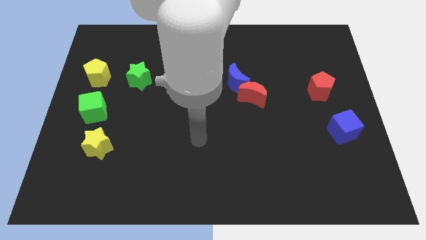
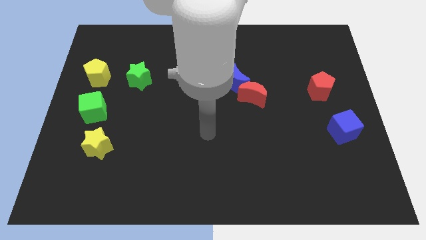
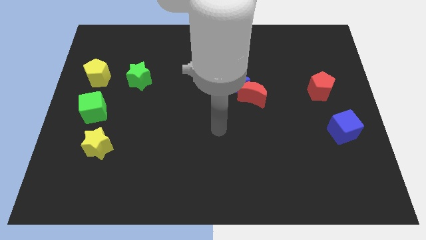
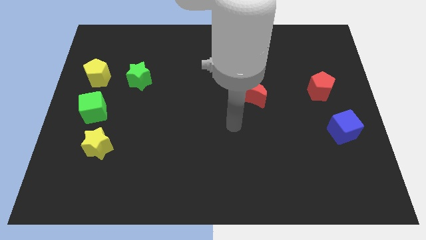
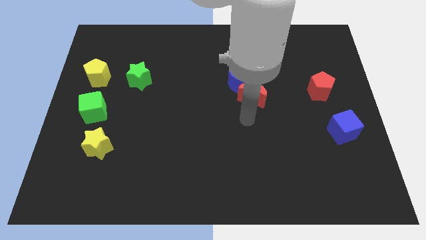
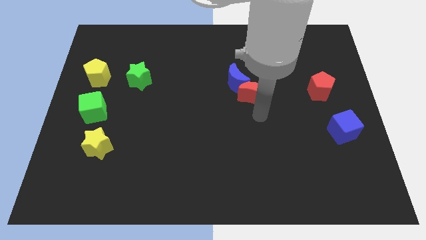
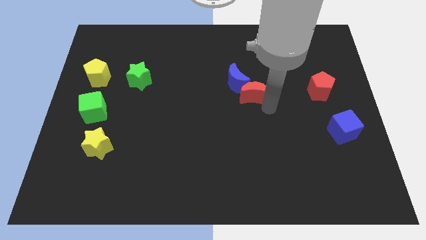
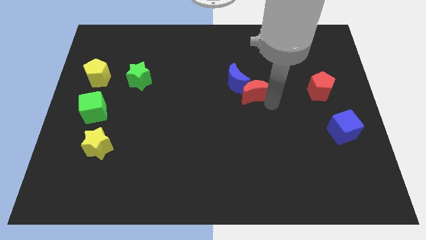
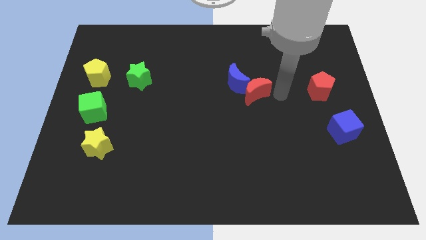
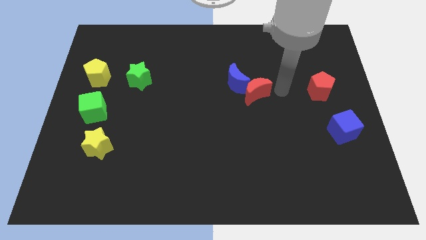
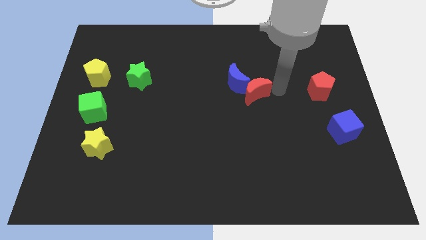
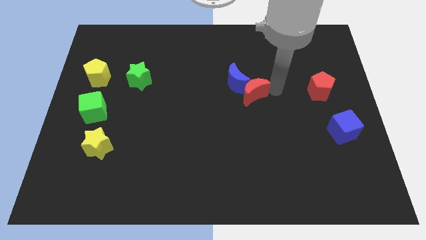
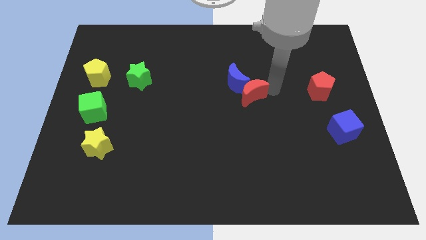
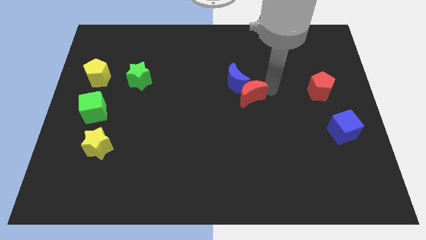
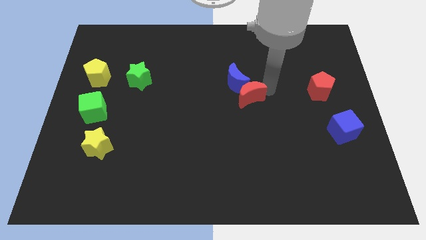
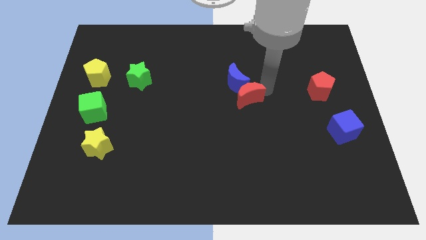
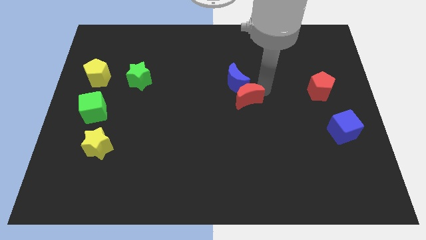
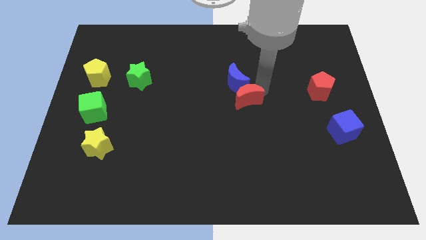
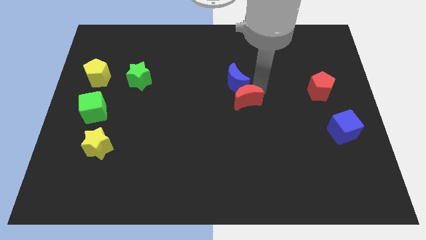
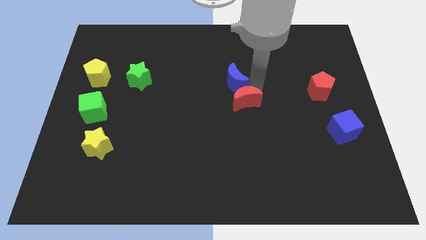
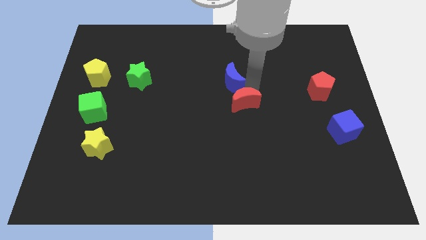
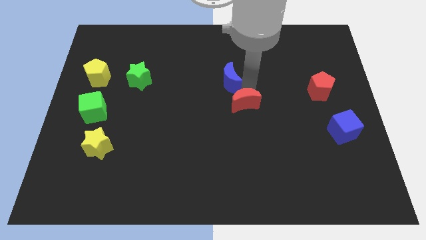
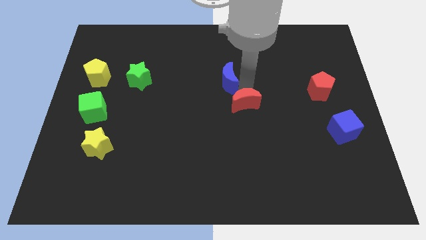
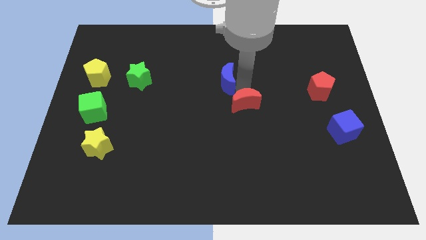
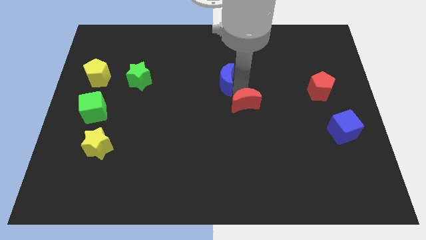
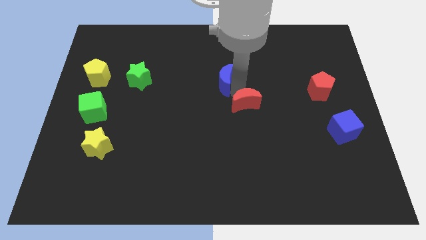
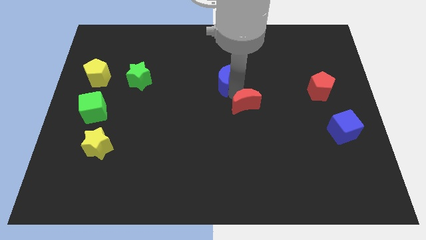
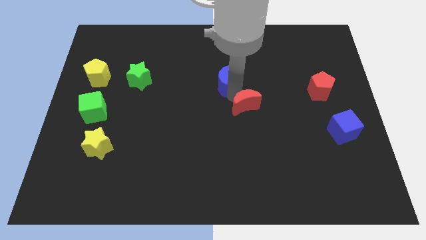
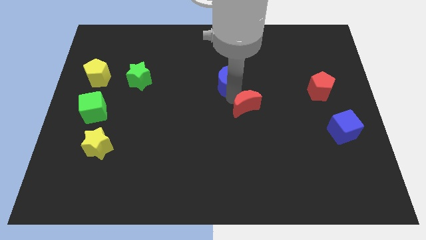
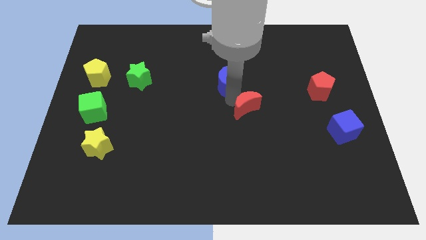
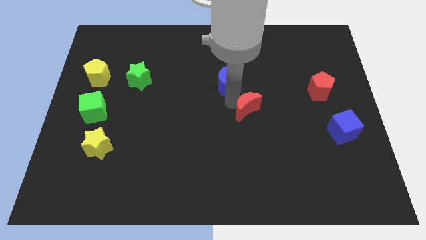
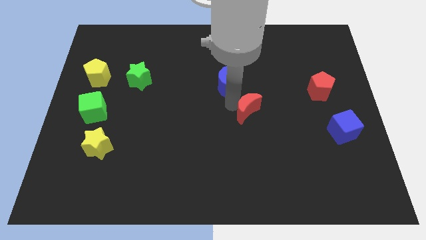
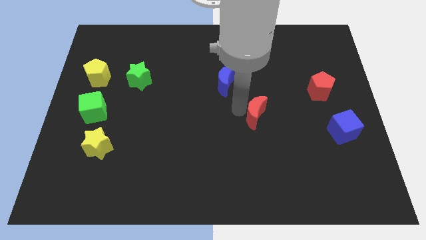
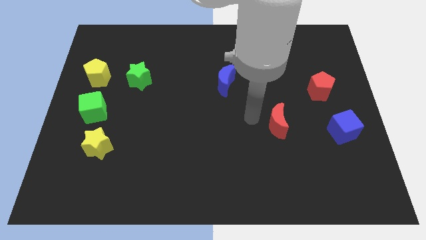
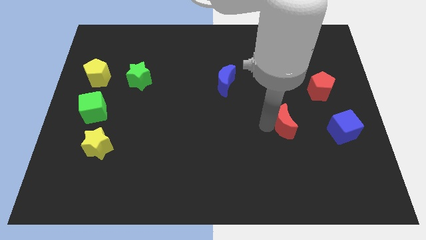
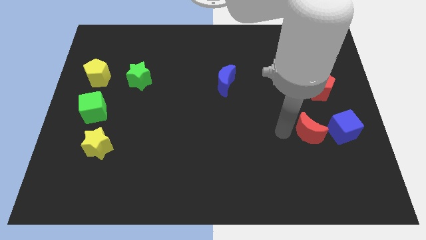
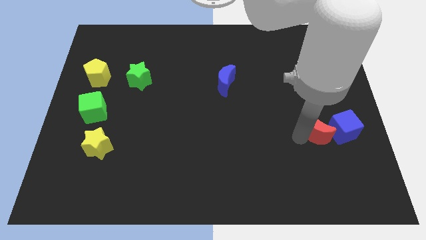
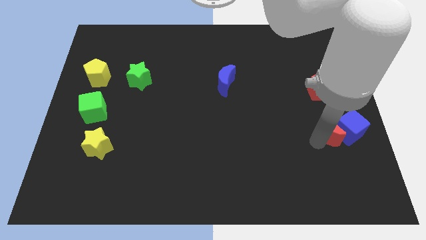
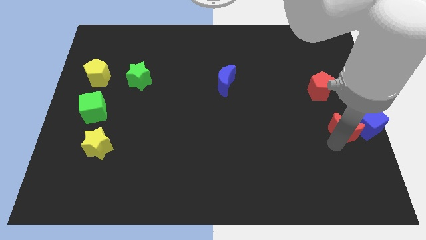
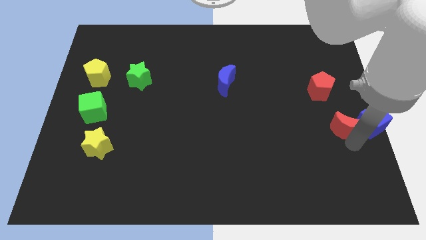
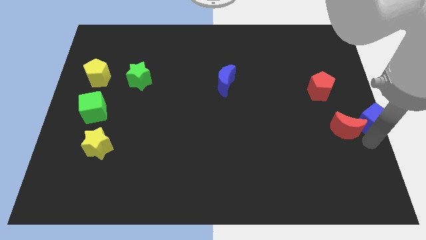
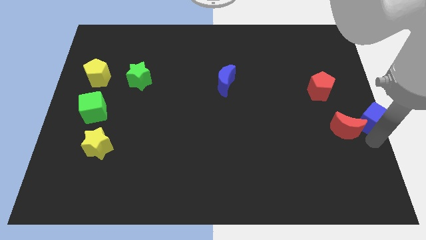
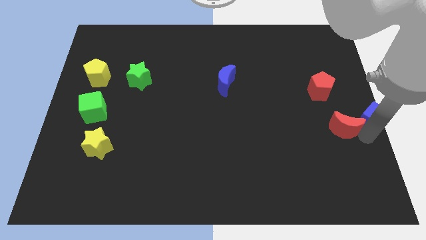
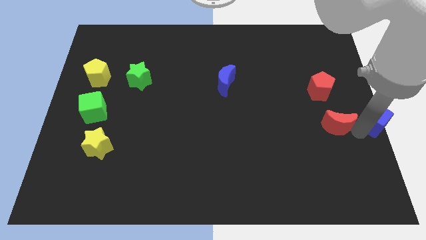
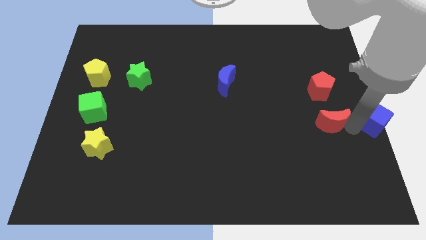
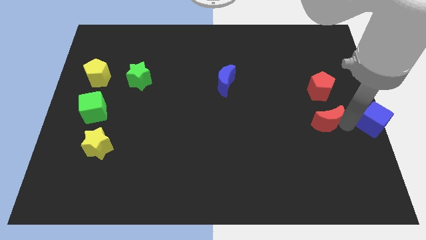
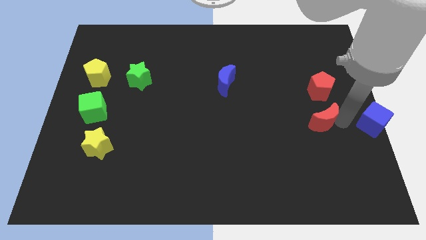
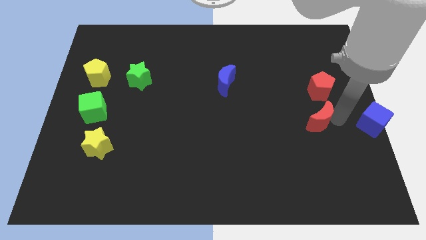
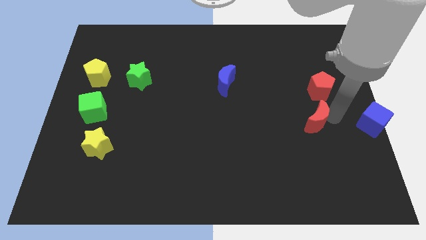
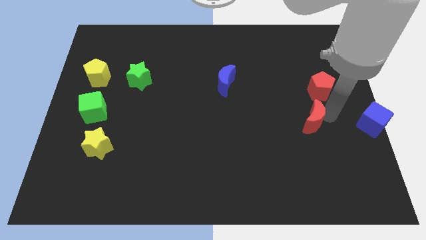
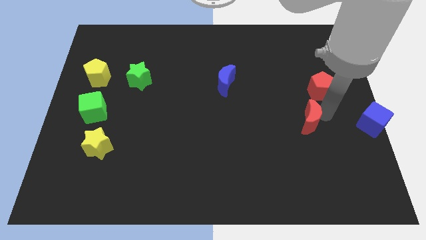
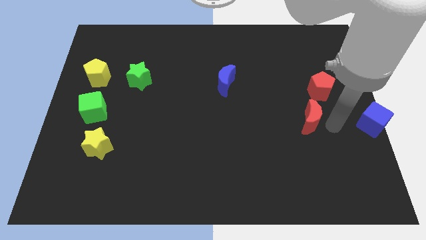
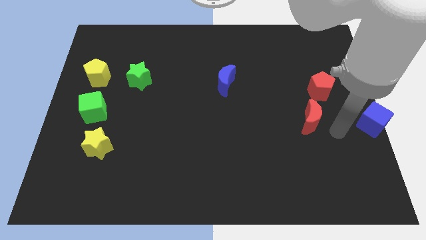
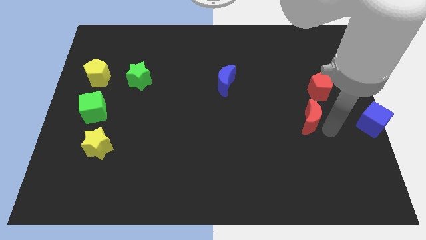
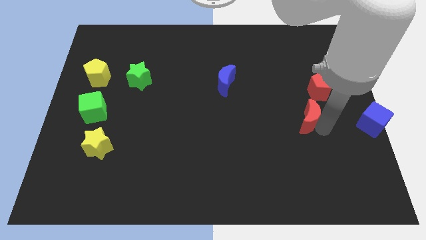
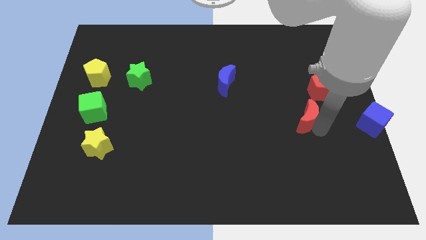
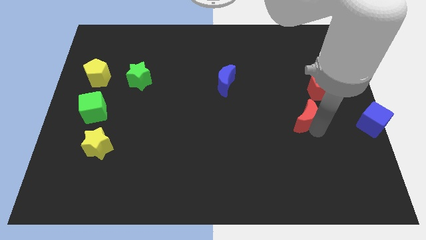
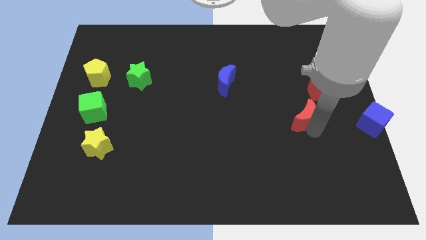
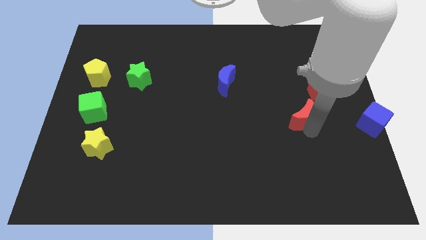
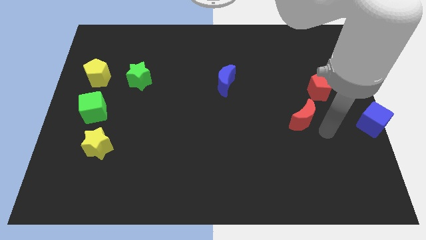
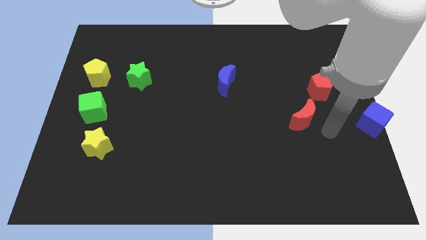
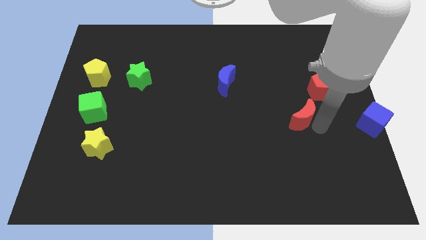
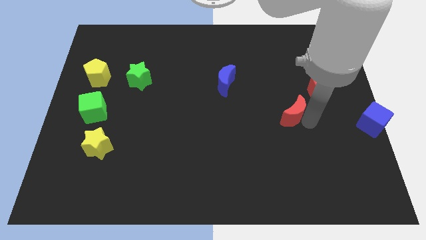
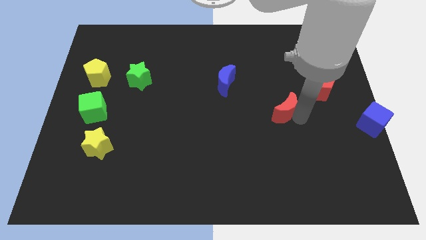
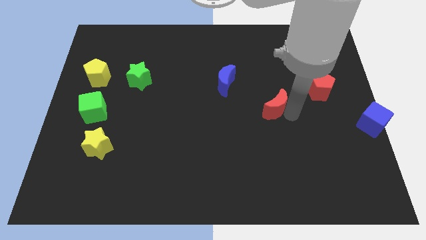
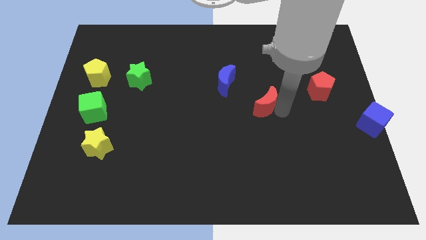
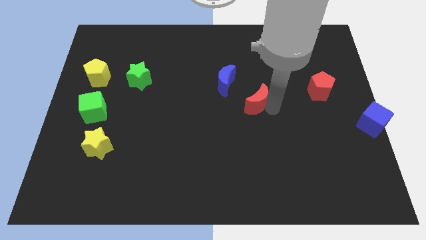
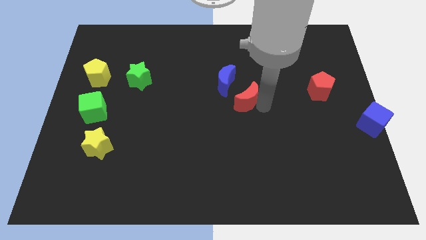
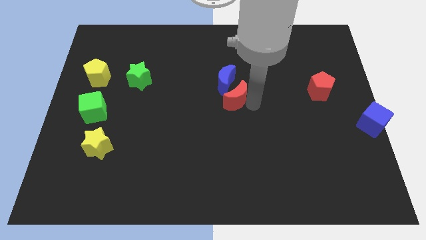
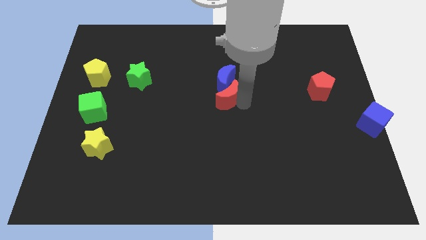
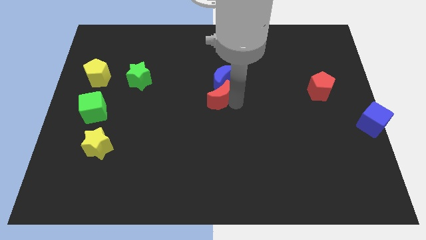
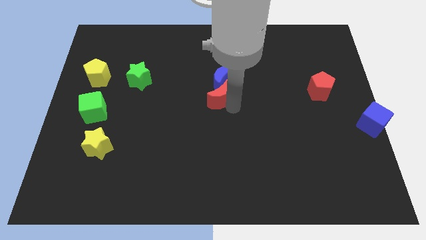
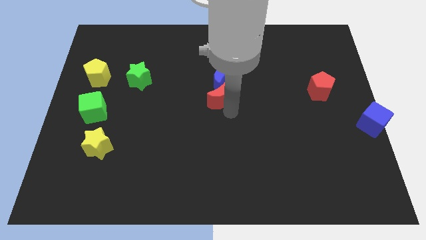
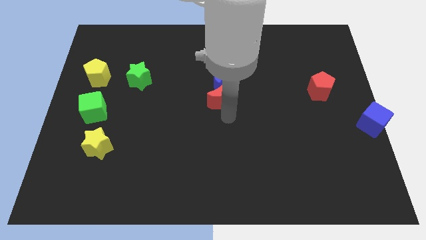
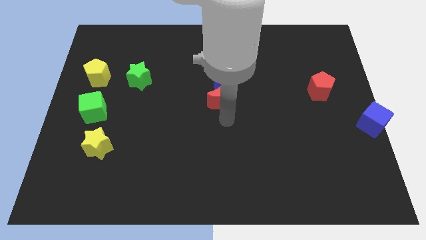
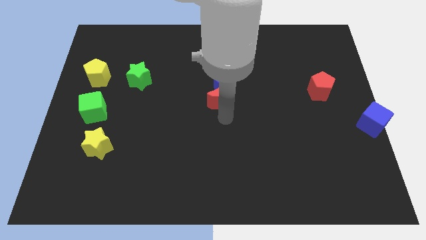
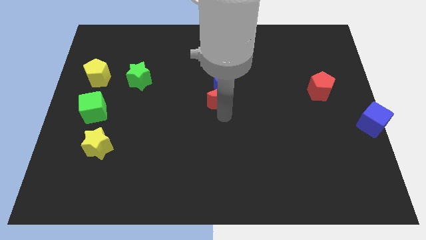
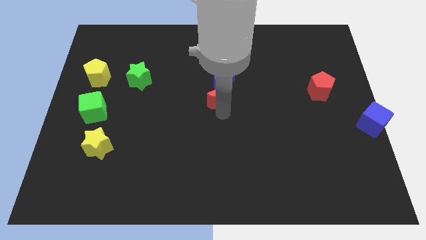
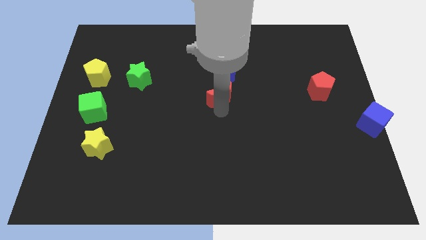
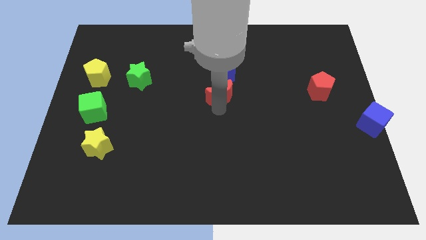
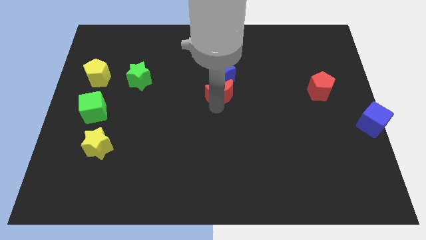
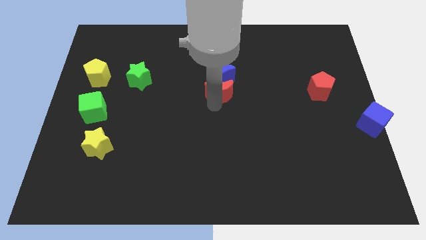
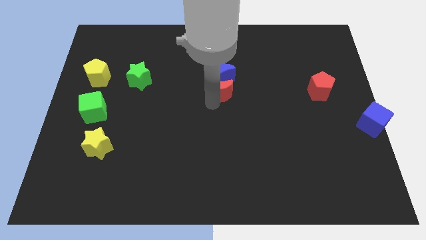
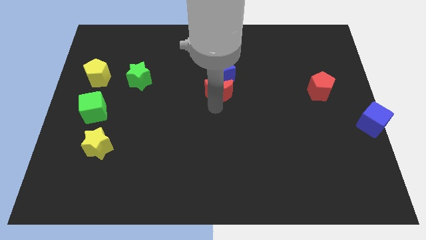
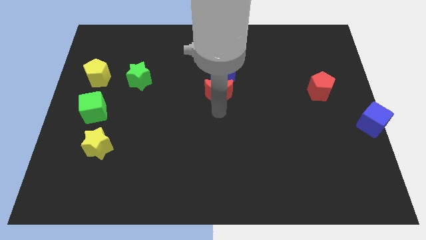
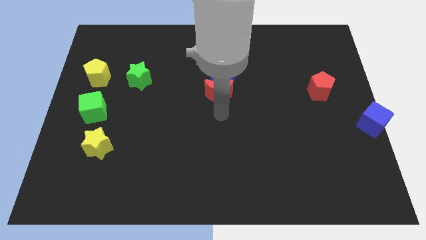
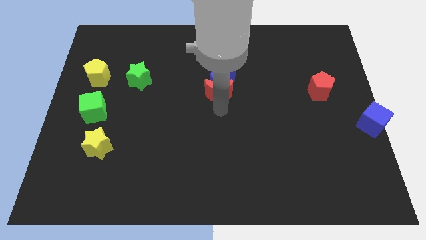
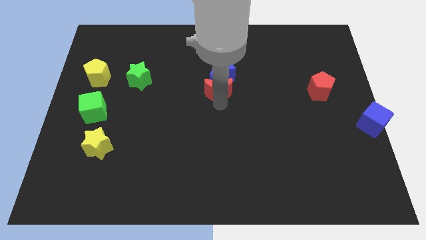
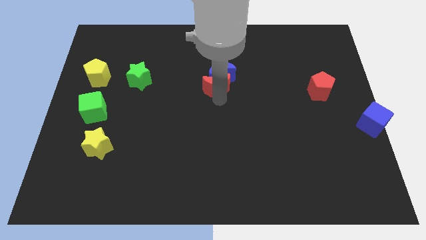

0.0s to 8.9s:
move the red moon slightly up and then to the left
